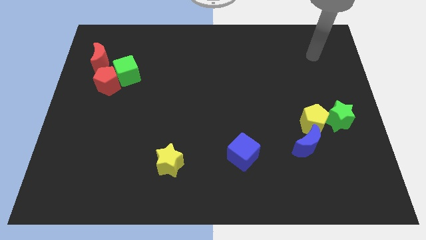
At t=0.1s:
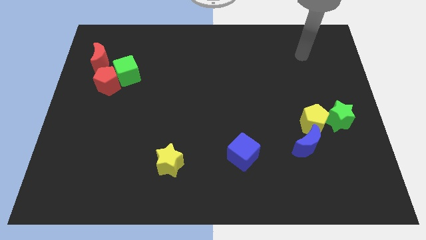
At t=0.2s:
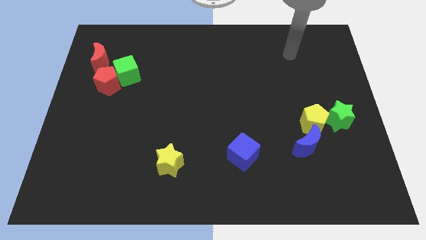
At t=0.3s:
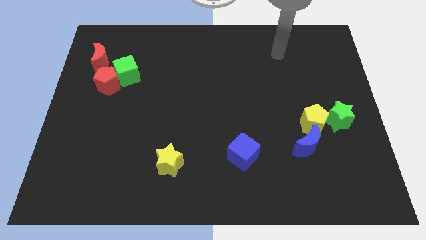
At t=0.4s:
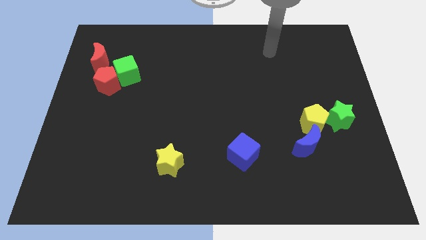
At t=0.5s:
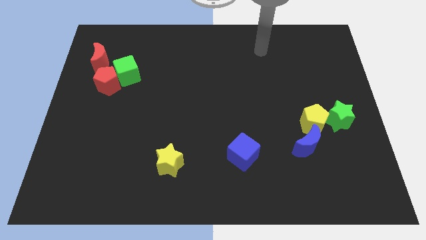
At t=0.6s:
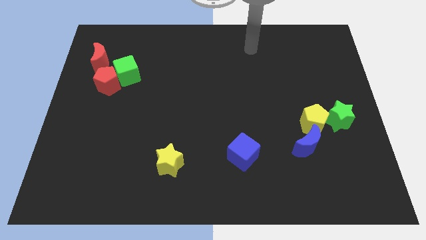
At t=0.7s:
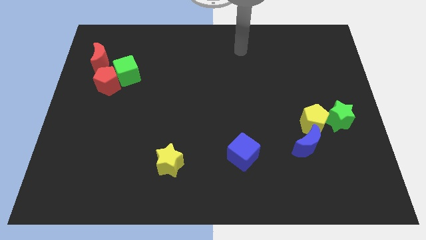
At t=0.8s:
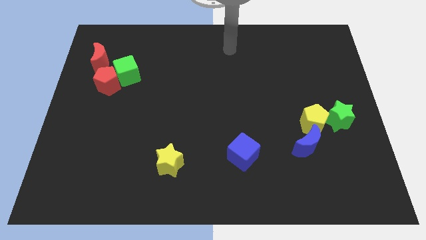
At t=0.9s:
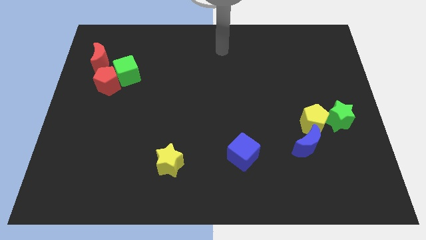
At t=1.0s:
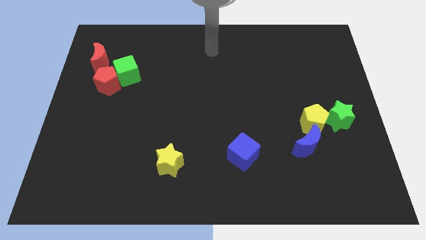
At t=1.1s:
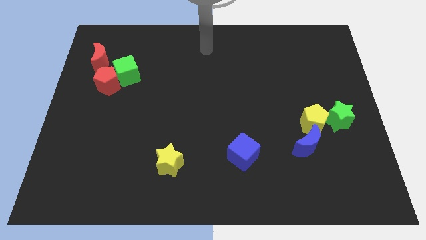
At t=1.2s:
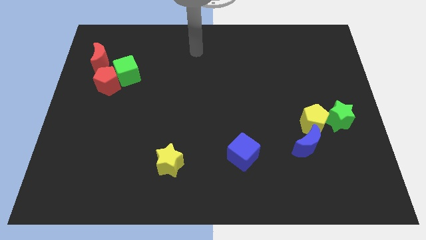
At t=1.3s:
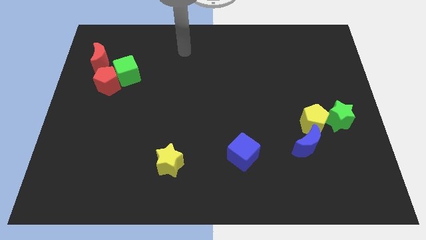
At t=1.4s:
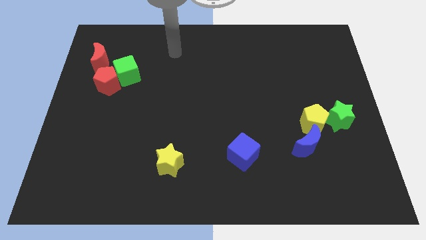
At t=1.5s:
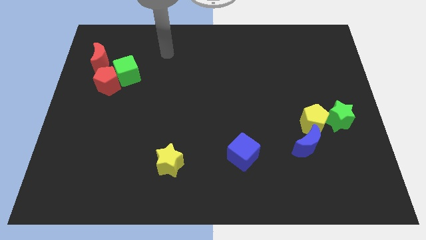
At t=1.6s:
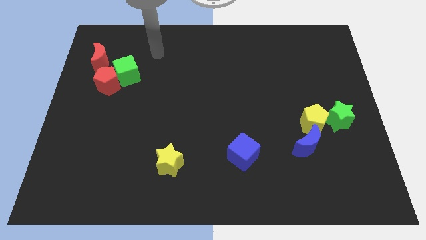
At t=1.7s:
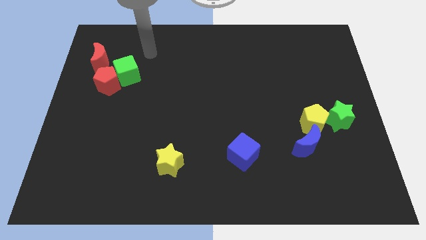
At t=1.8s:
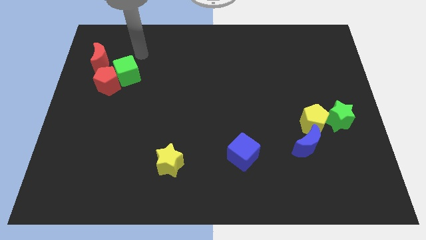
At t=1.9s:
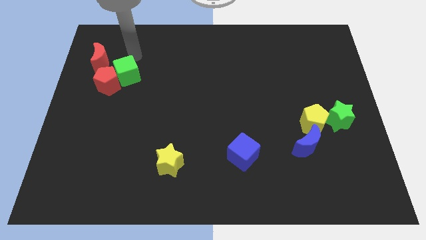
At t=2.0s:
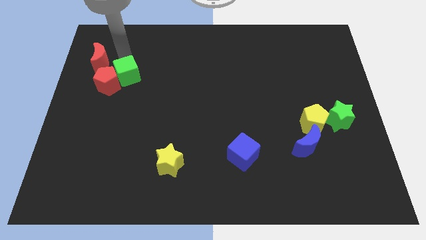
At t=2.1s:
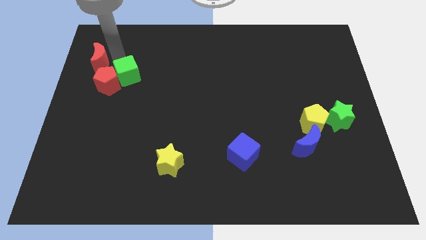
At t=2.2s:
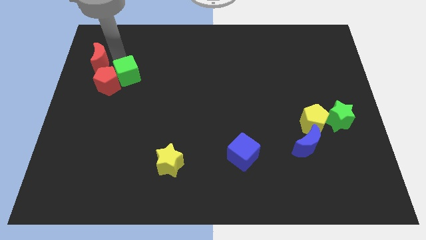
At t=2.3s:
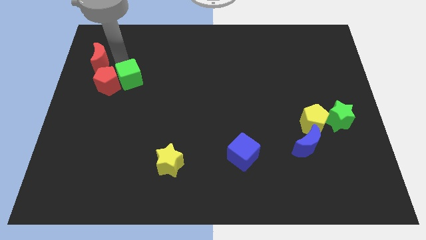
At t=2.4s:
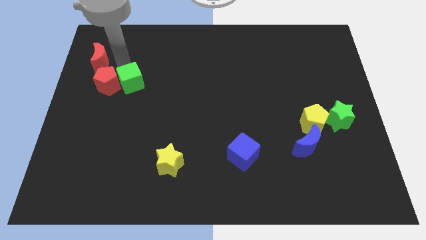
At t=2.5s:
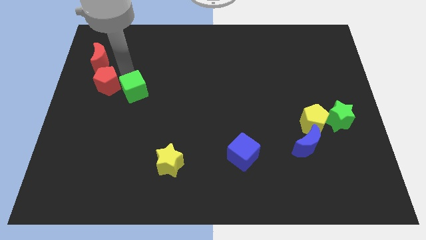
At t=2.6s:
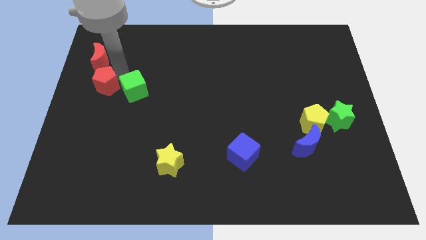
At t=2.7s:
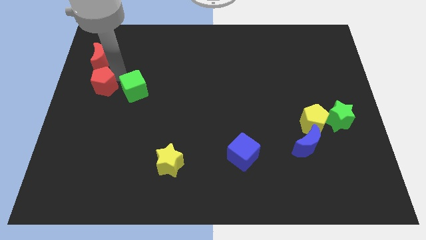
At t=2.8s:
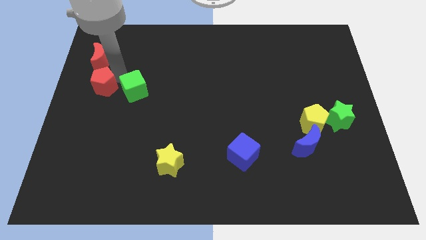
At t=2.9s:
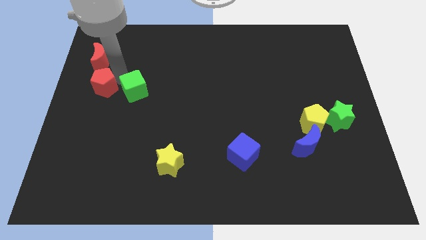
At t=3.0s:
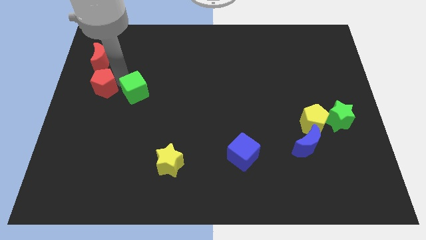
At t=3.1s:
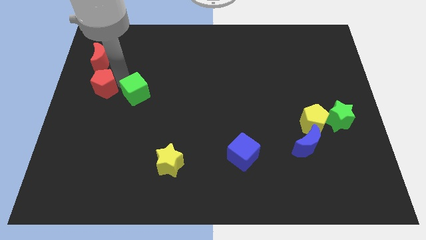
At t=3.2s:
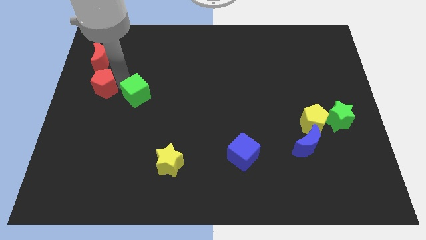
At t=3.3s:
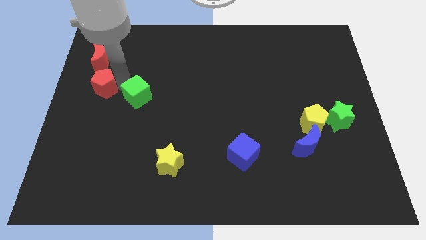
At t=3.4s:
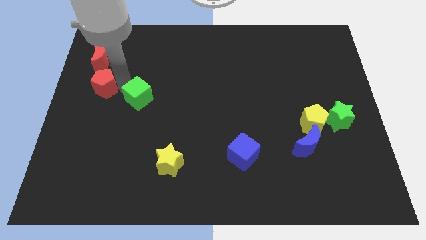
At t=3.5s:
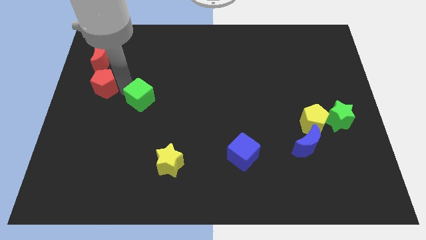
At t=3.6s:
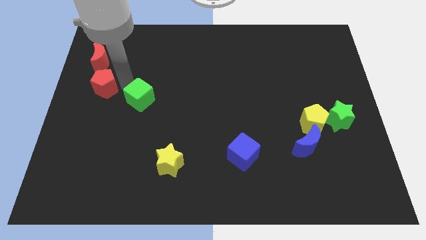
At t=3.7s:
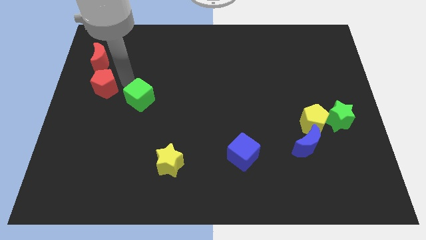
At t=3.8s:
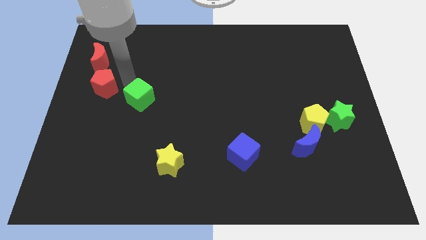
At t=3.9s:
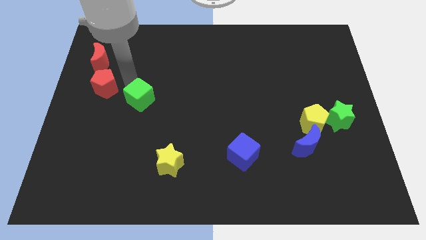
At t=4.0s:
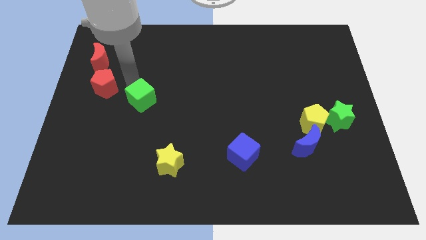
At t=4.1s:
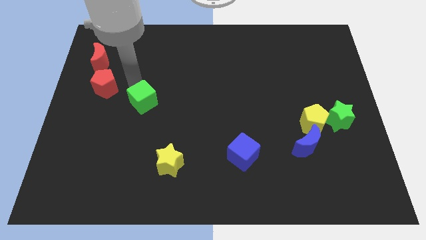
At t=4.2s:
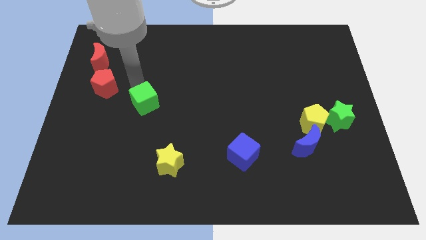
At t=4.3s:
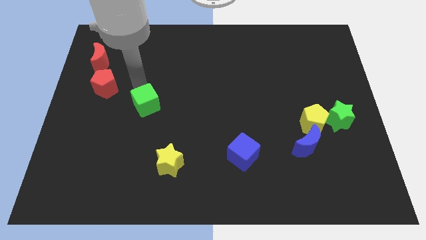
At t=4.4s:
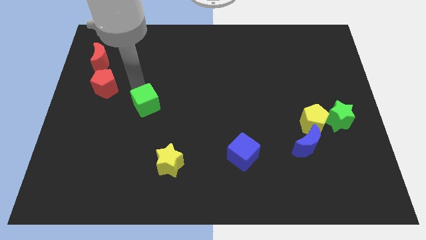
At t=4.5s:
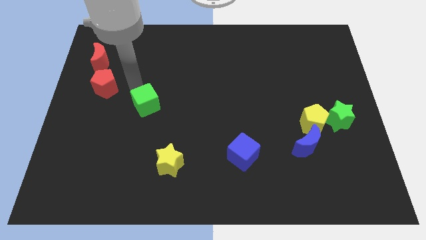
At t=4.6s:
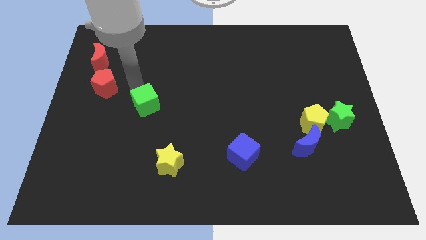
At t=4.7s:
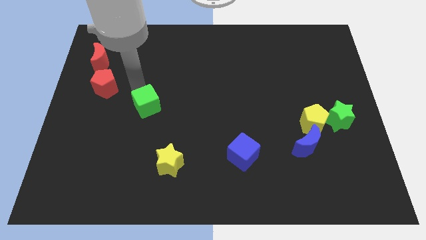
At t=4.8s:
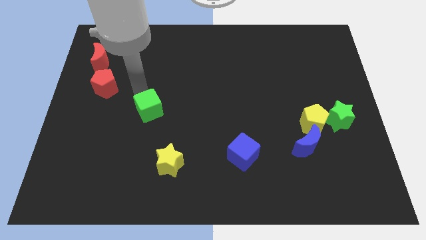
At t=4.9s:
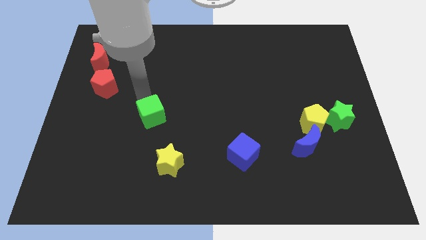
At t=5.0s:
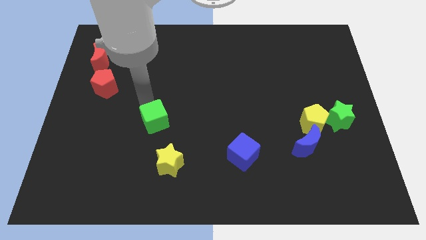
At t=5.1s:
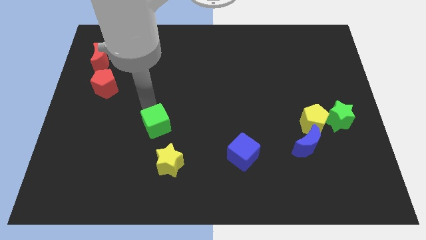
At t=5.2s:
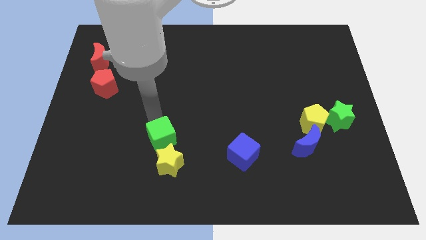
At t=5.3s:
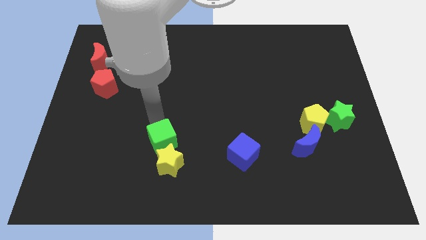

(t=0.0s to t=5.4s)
slide the green cube towards the yellow star

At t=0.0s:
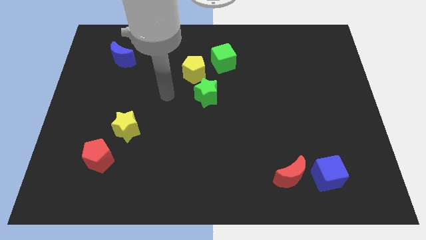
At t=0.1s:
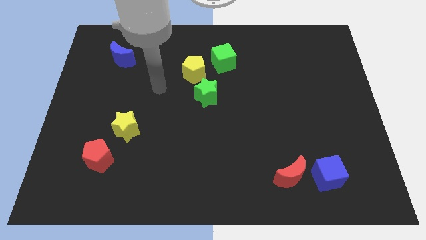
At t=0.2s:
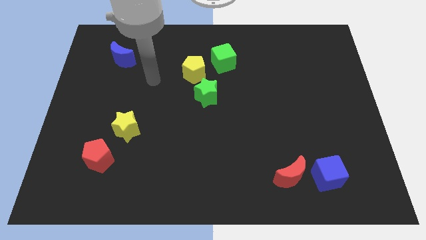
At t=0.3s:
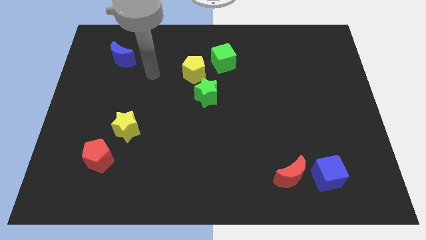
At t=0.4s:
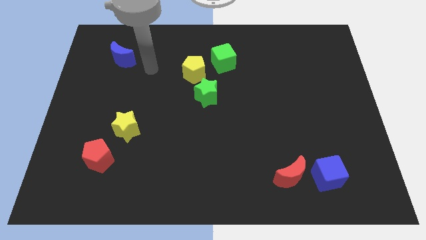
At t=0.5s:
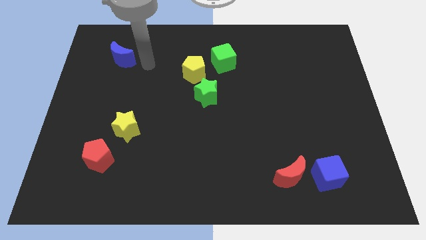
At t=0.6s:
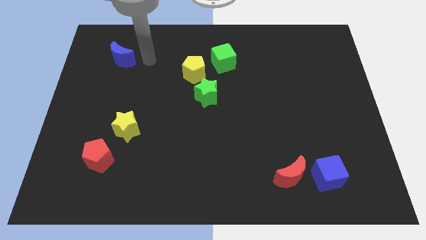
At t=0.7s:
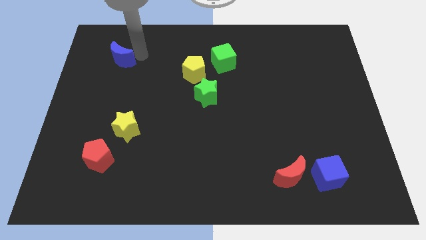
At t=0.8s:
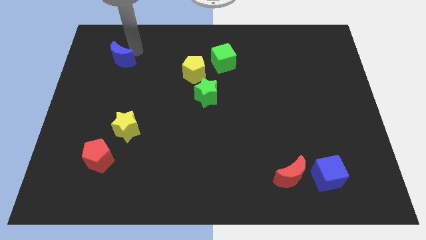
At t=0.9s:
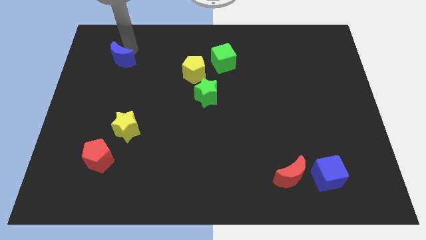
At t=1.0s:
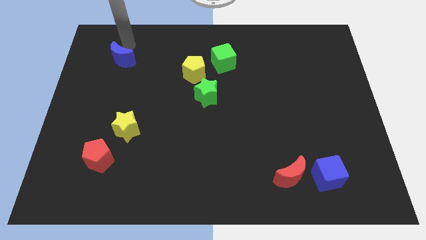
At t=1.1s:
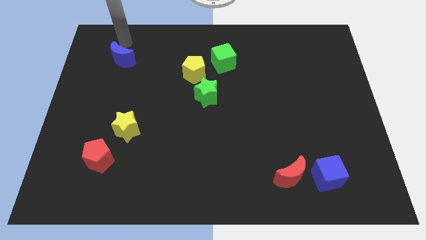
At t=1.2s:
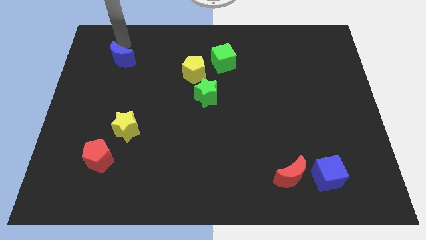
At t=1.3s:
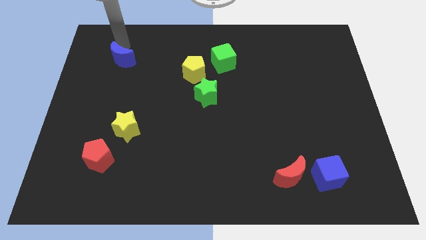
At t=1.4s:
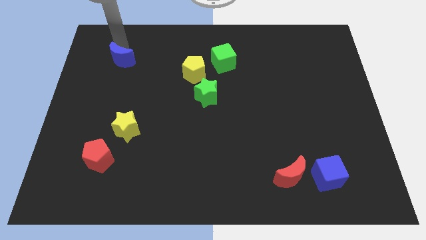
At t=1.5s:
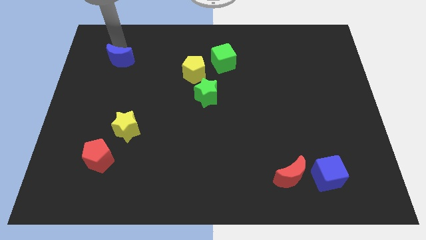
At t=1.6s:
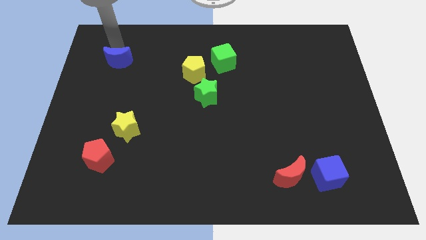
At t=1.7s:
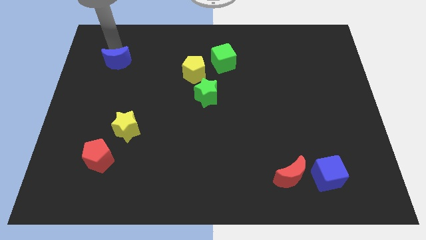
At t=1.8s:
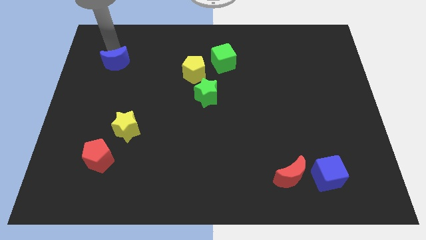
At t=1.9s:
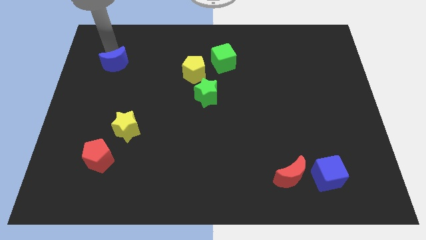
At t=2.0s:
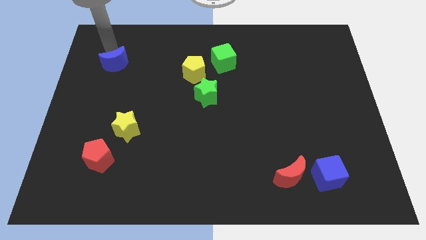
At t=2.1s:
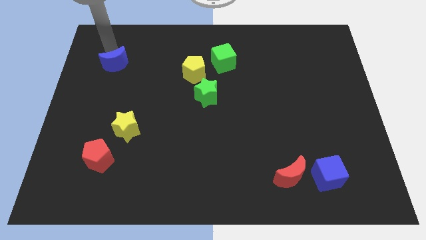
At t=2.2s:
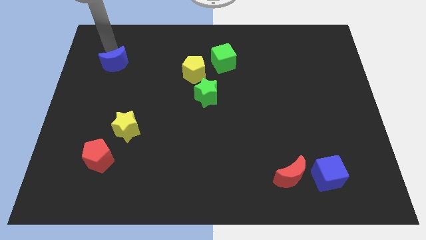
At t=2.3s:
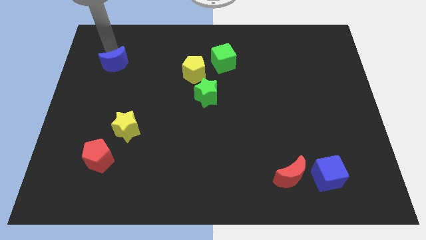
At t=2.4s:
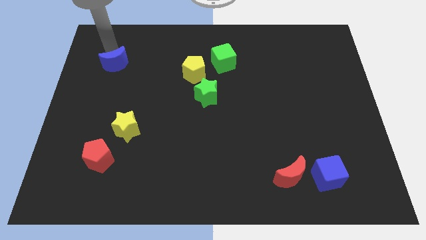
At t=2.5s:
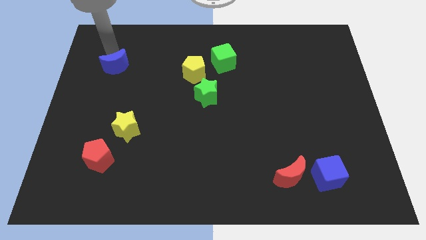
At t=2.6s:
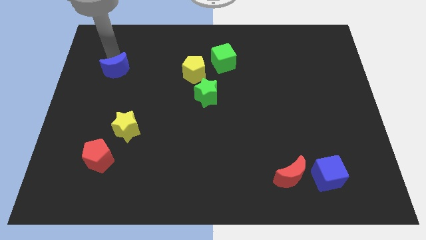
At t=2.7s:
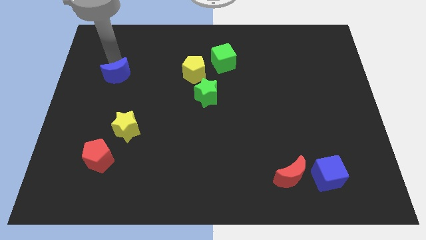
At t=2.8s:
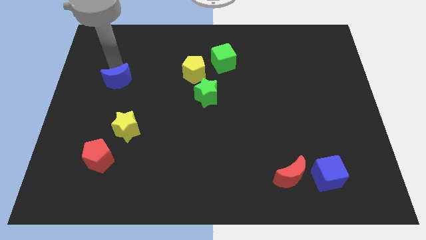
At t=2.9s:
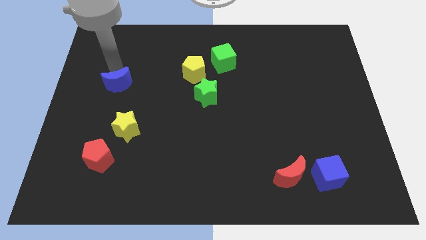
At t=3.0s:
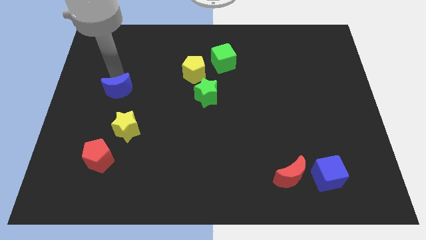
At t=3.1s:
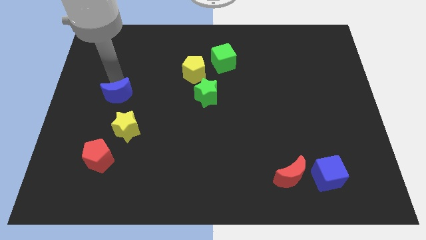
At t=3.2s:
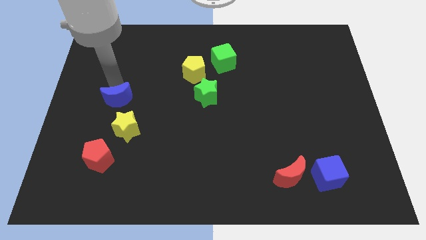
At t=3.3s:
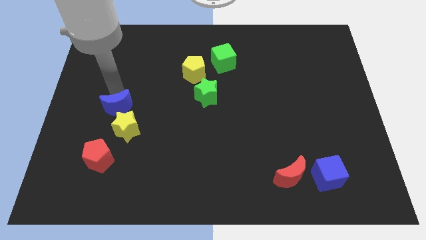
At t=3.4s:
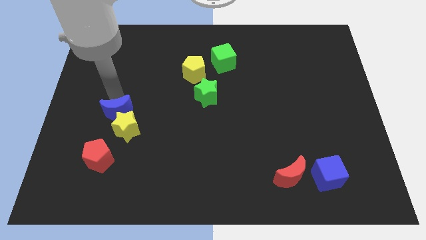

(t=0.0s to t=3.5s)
push the blue moon close to the yellow star
